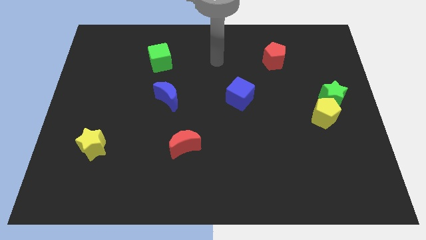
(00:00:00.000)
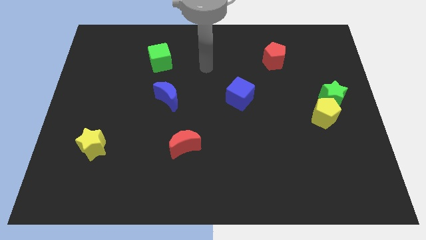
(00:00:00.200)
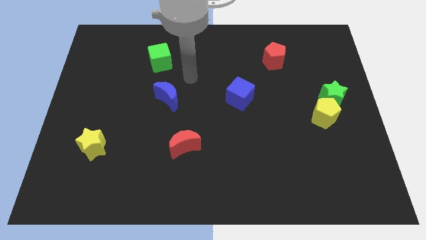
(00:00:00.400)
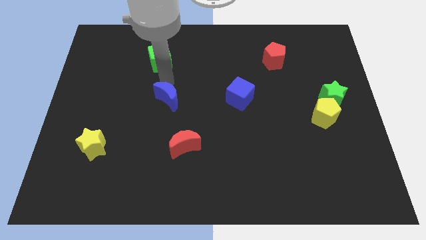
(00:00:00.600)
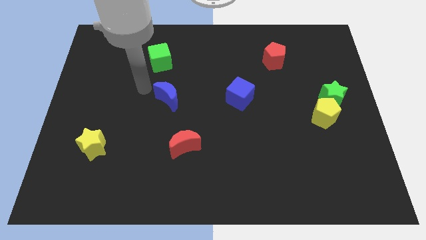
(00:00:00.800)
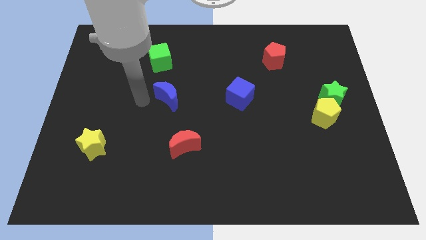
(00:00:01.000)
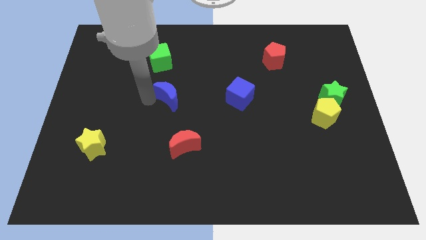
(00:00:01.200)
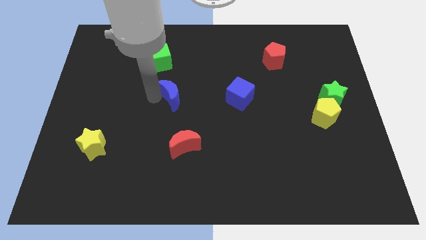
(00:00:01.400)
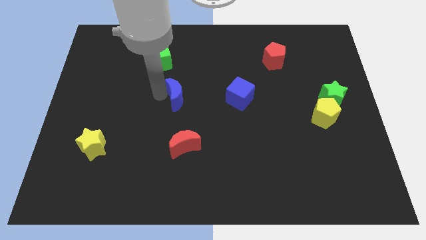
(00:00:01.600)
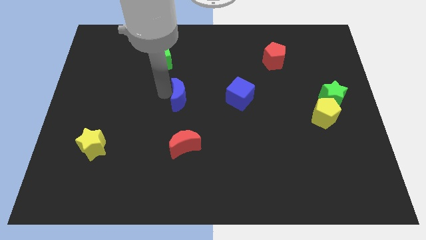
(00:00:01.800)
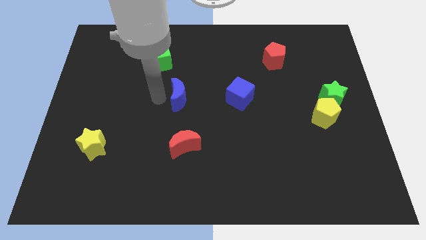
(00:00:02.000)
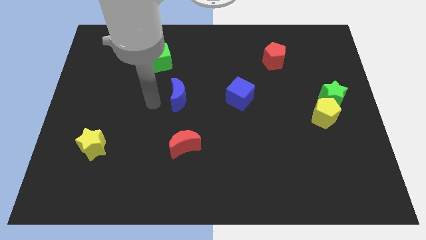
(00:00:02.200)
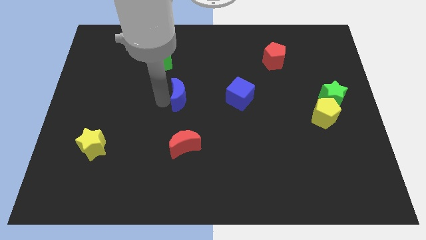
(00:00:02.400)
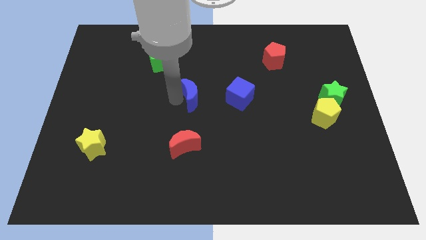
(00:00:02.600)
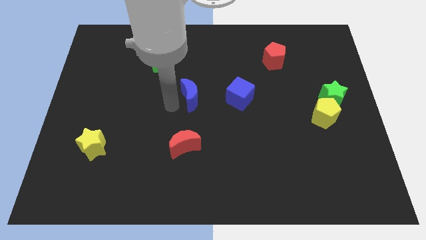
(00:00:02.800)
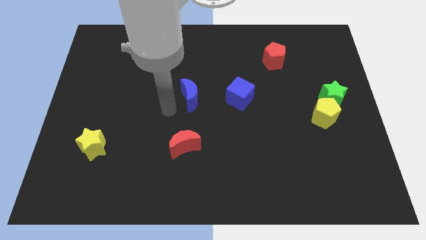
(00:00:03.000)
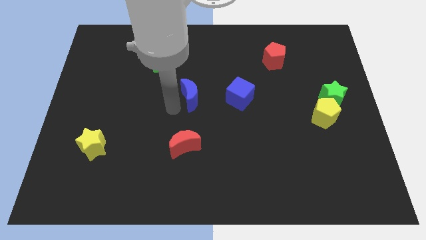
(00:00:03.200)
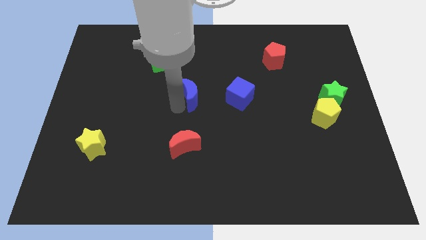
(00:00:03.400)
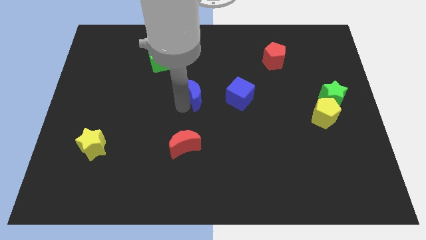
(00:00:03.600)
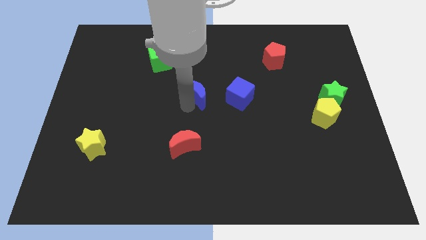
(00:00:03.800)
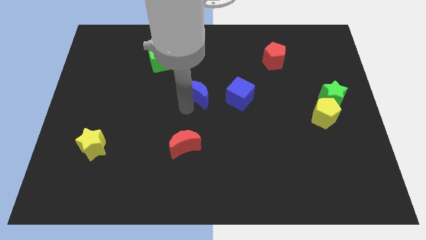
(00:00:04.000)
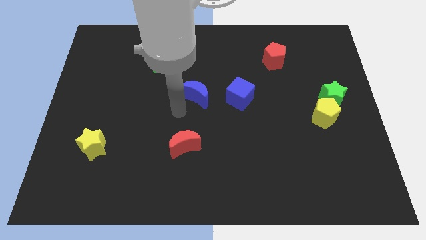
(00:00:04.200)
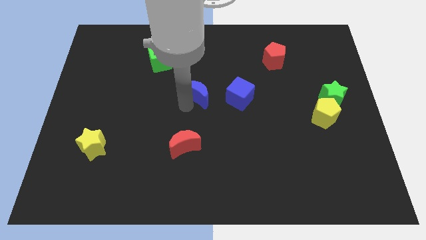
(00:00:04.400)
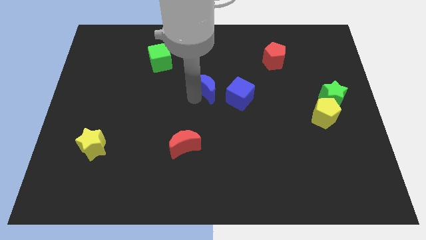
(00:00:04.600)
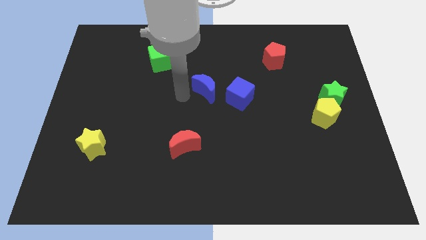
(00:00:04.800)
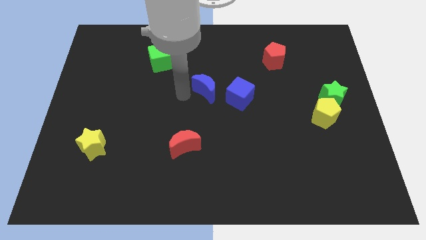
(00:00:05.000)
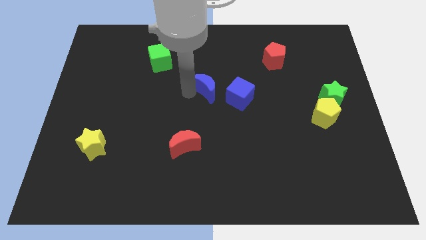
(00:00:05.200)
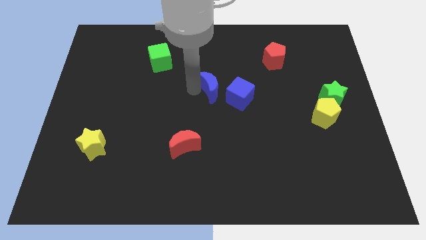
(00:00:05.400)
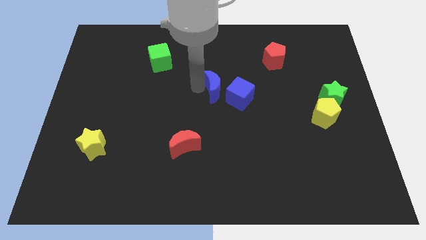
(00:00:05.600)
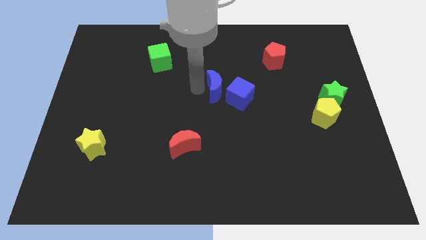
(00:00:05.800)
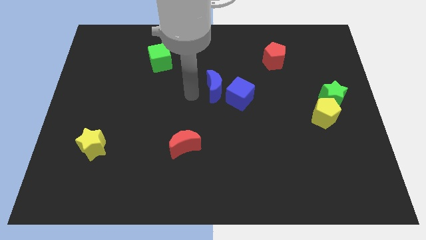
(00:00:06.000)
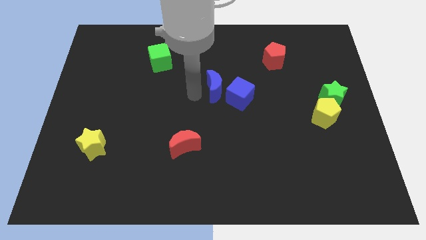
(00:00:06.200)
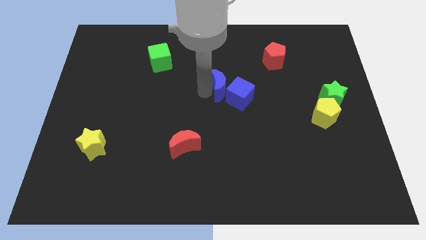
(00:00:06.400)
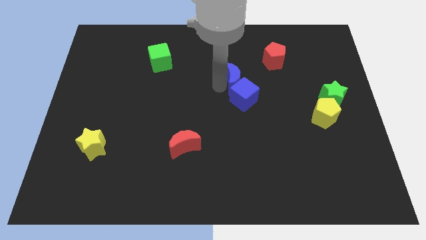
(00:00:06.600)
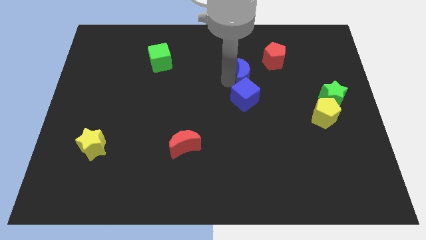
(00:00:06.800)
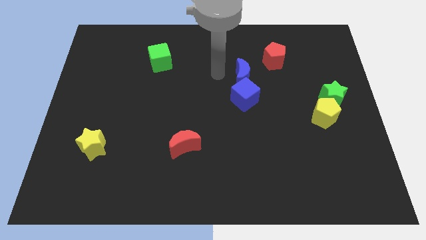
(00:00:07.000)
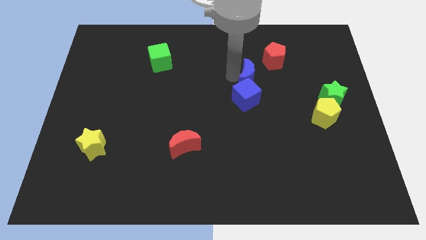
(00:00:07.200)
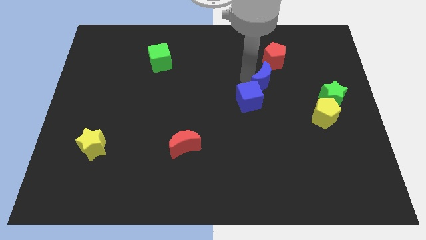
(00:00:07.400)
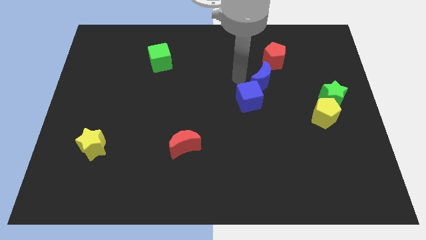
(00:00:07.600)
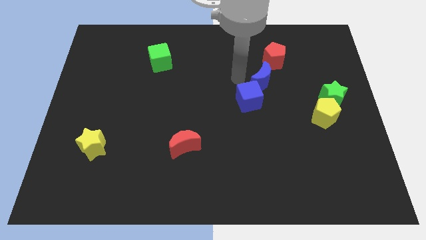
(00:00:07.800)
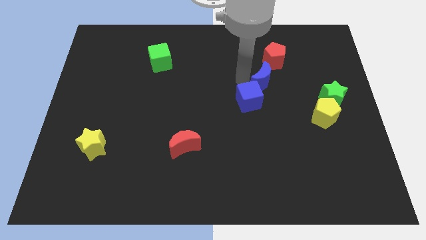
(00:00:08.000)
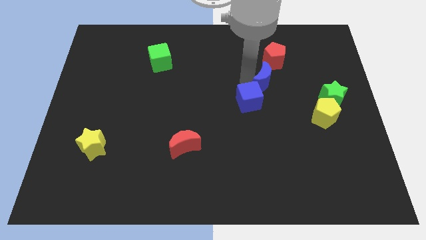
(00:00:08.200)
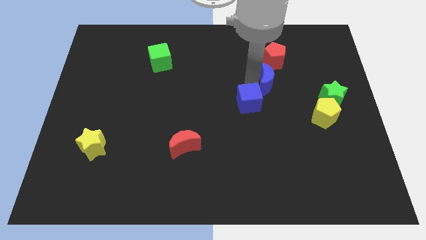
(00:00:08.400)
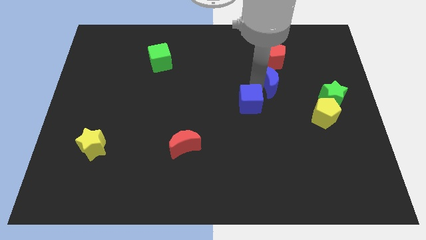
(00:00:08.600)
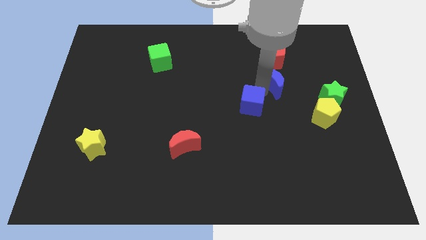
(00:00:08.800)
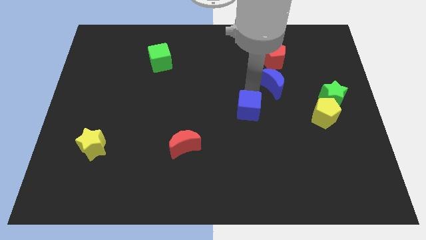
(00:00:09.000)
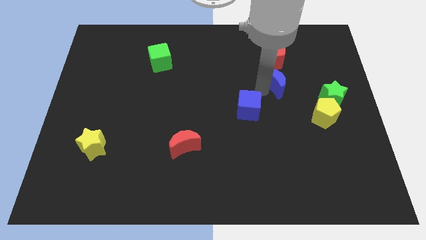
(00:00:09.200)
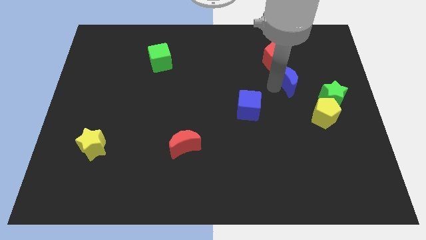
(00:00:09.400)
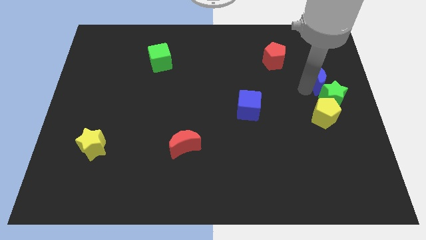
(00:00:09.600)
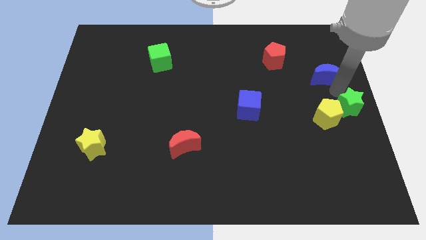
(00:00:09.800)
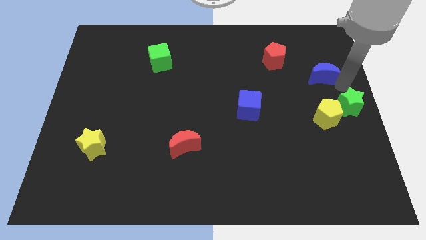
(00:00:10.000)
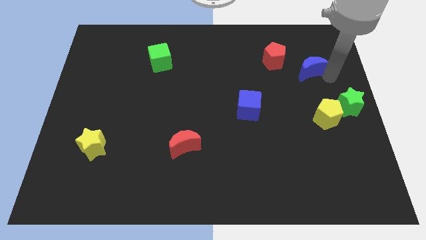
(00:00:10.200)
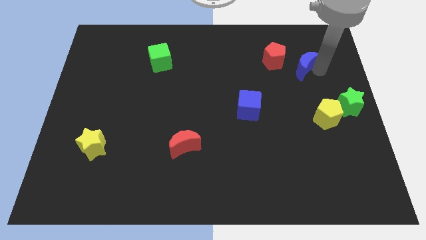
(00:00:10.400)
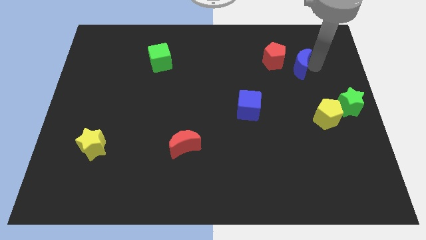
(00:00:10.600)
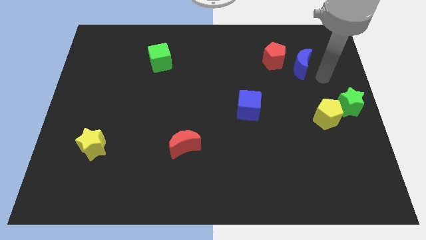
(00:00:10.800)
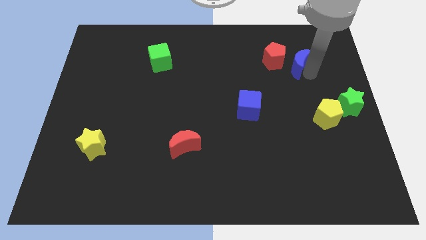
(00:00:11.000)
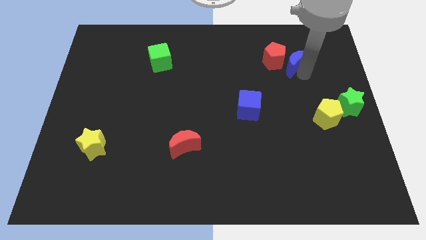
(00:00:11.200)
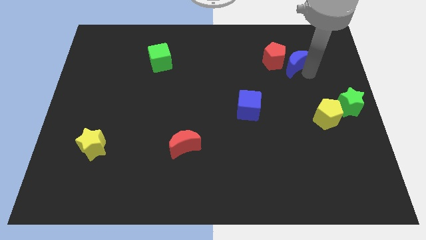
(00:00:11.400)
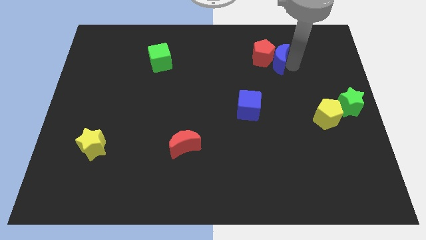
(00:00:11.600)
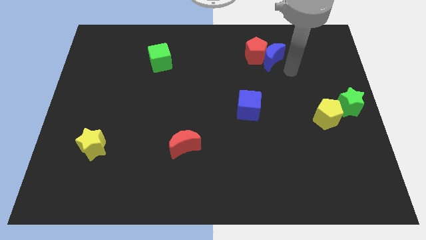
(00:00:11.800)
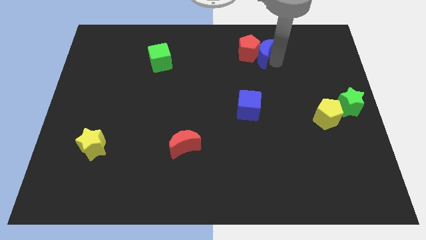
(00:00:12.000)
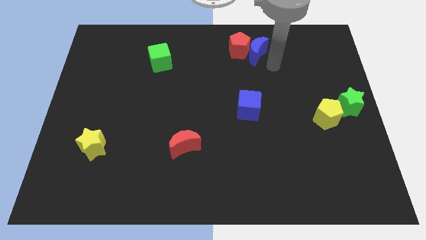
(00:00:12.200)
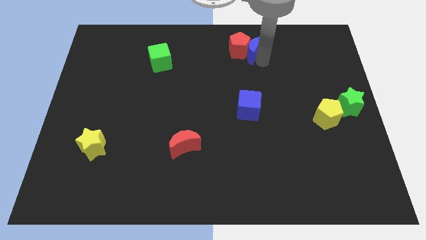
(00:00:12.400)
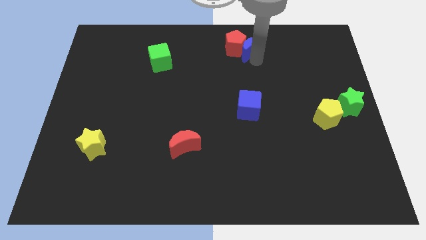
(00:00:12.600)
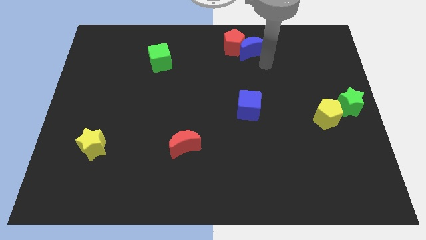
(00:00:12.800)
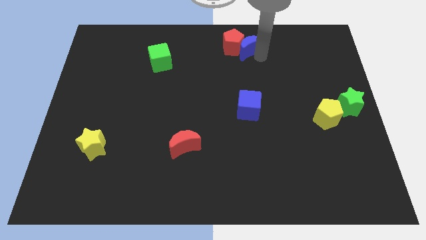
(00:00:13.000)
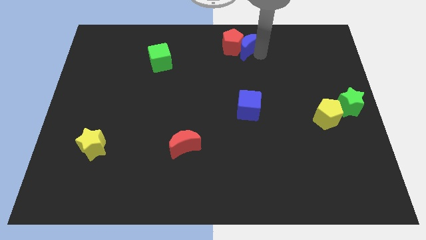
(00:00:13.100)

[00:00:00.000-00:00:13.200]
push the blue moon to the top side

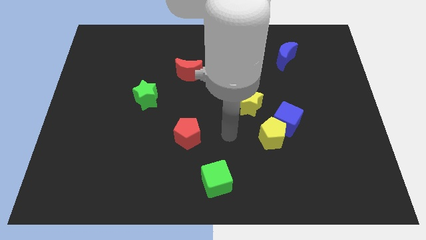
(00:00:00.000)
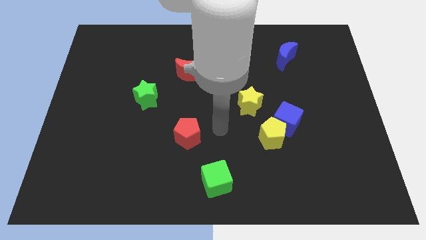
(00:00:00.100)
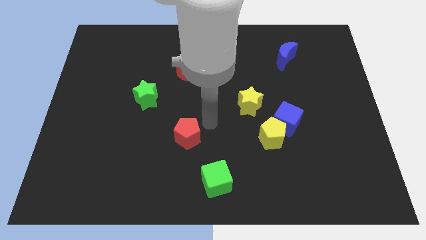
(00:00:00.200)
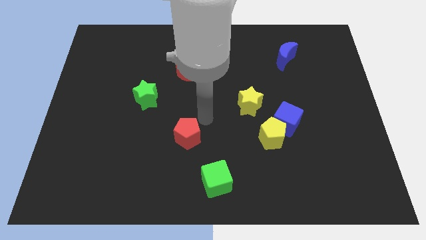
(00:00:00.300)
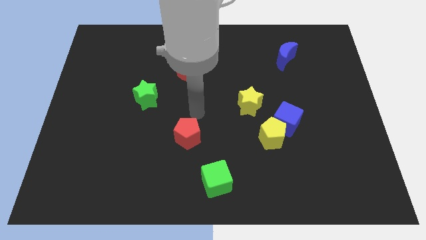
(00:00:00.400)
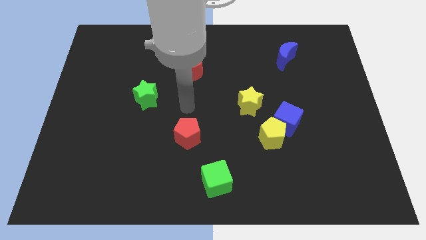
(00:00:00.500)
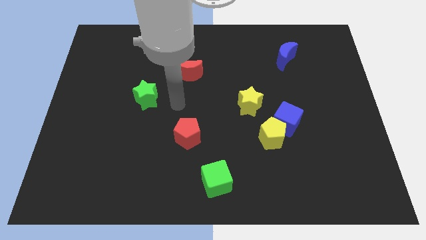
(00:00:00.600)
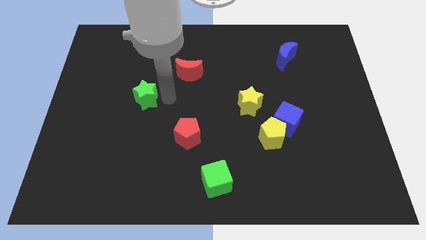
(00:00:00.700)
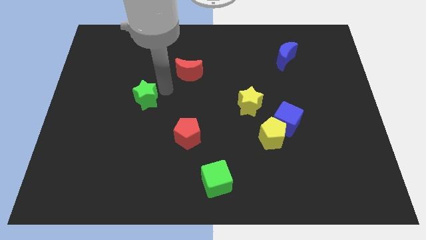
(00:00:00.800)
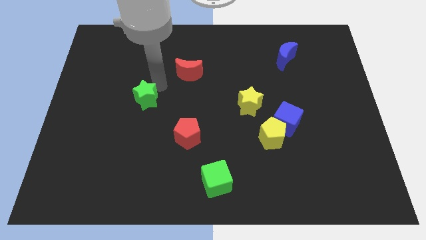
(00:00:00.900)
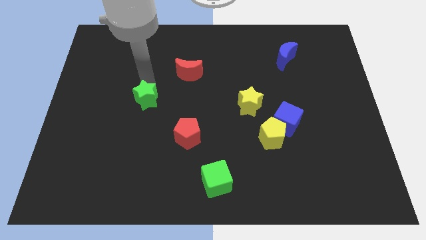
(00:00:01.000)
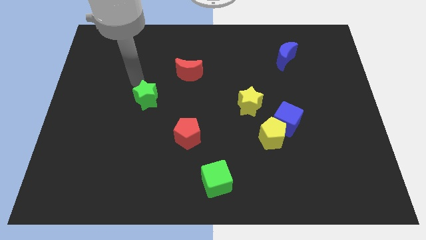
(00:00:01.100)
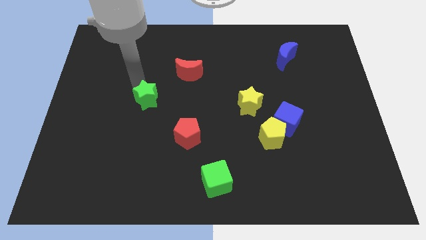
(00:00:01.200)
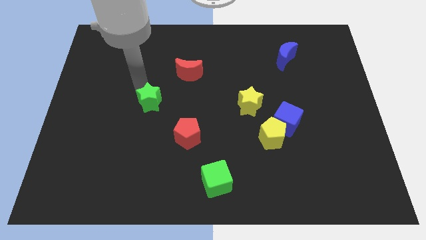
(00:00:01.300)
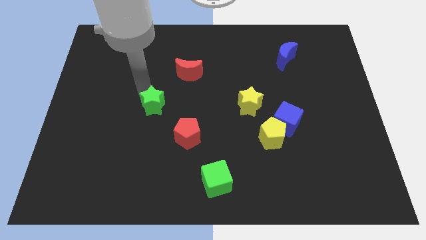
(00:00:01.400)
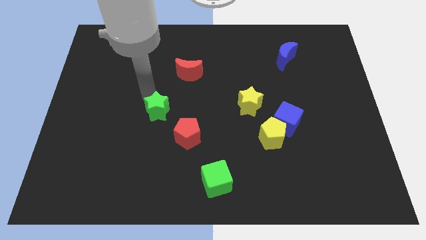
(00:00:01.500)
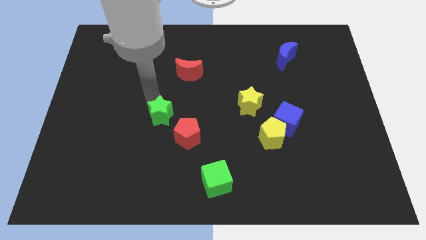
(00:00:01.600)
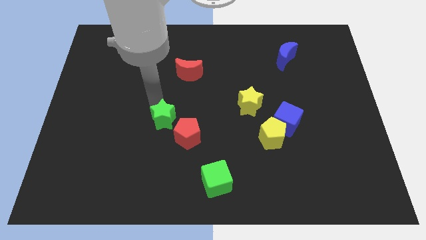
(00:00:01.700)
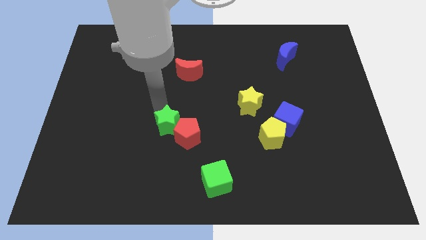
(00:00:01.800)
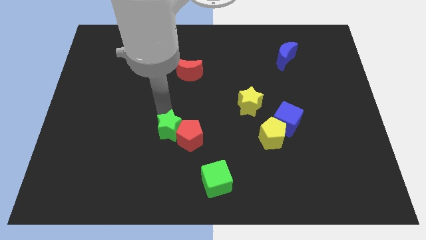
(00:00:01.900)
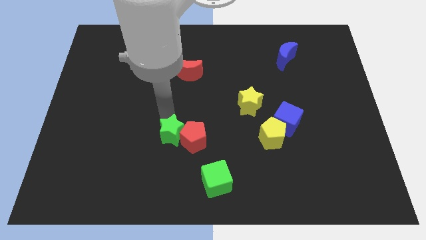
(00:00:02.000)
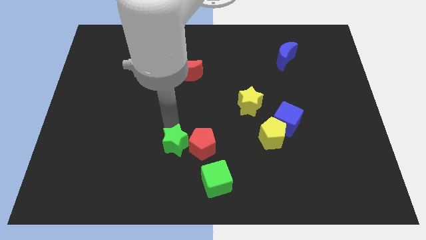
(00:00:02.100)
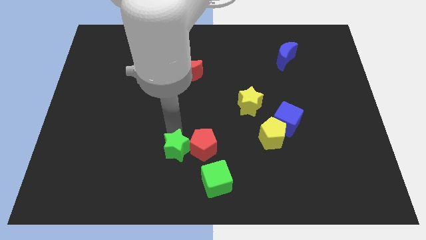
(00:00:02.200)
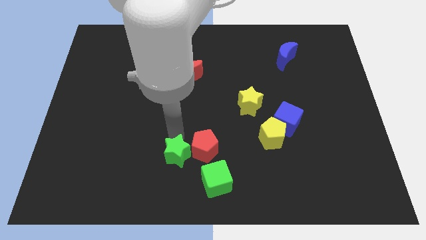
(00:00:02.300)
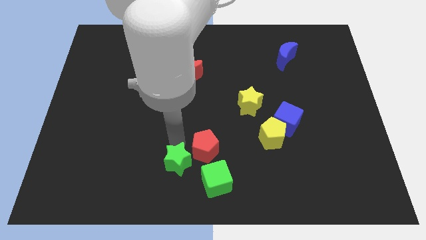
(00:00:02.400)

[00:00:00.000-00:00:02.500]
move the green star to the bottom side
